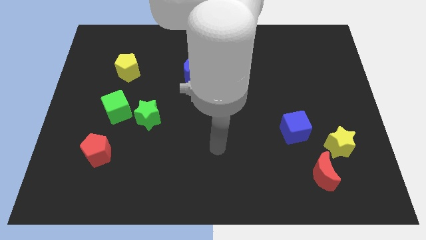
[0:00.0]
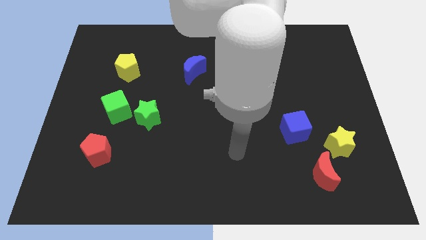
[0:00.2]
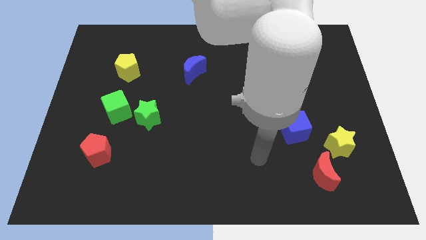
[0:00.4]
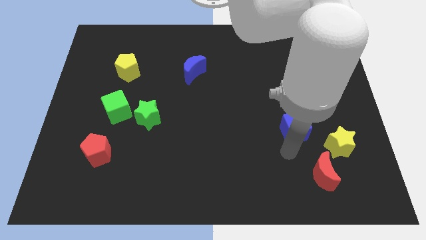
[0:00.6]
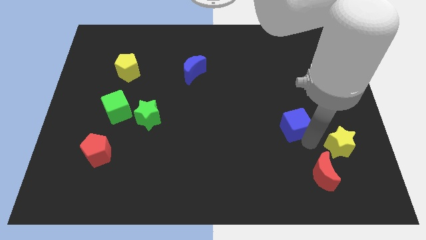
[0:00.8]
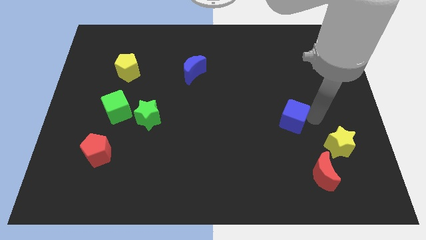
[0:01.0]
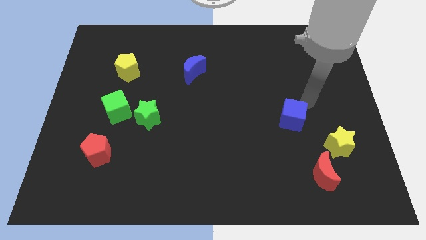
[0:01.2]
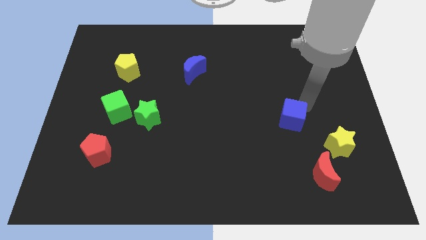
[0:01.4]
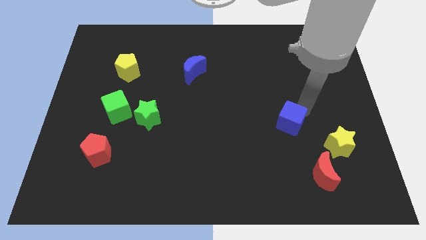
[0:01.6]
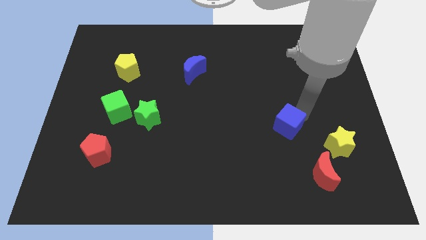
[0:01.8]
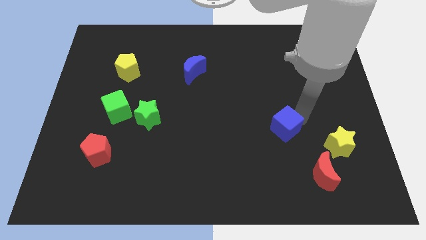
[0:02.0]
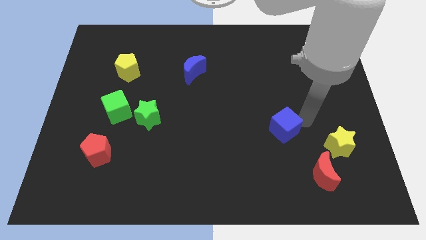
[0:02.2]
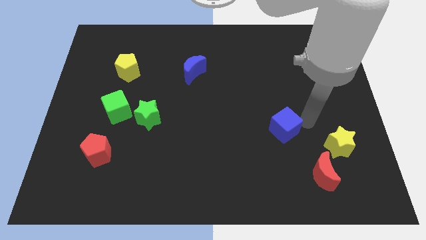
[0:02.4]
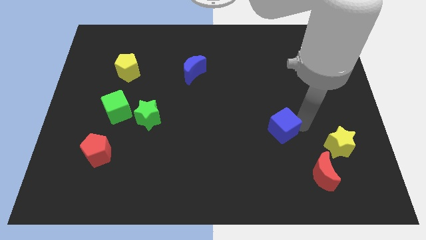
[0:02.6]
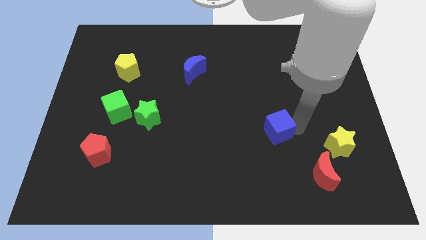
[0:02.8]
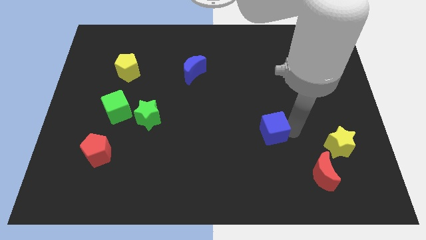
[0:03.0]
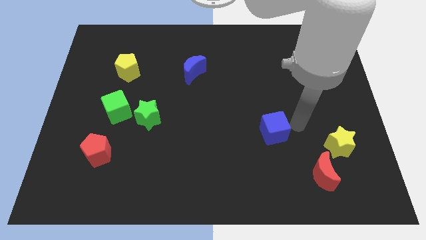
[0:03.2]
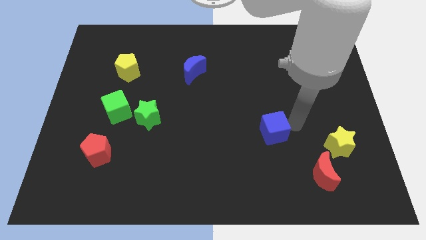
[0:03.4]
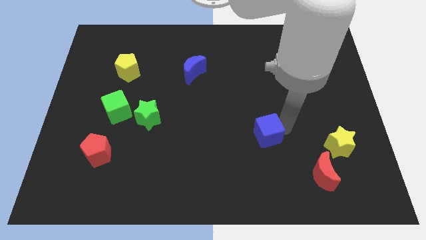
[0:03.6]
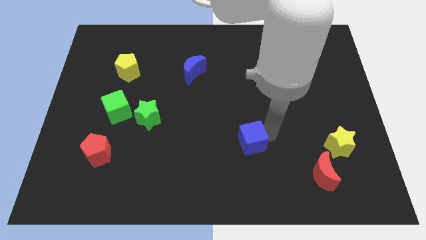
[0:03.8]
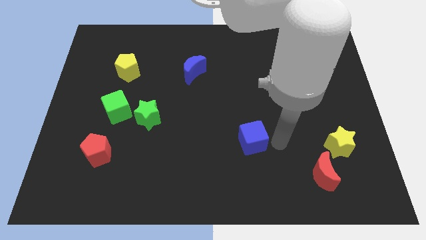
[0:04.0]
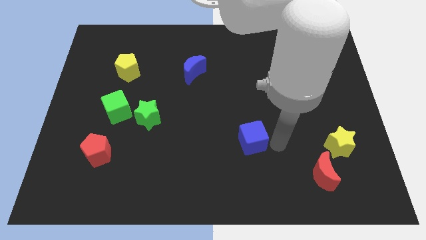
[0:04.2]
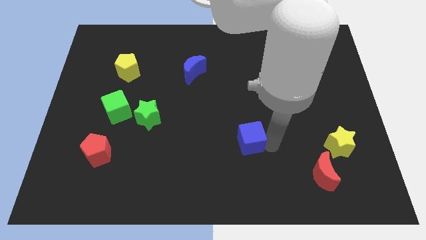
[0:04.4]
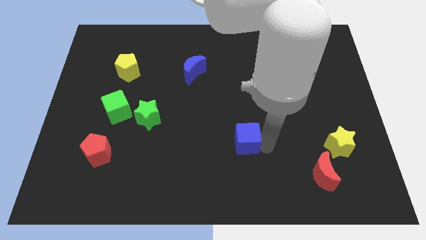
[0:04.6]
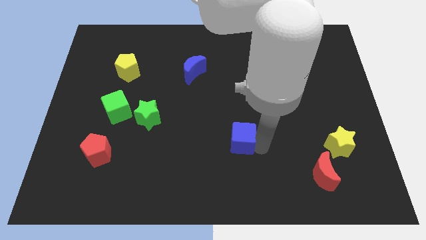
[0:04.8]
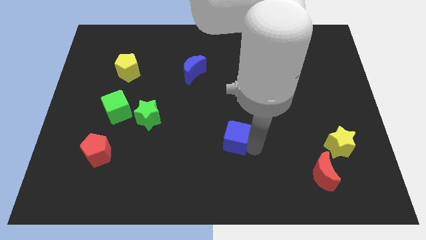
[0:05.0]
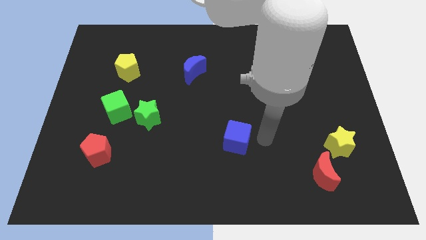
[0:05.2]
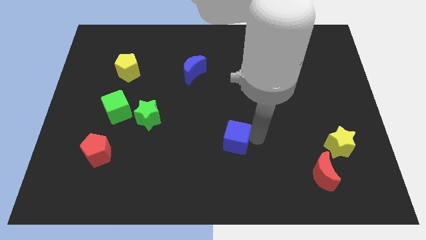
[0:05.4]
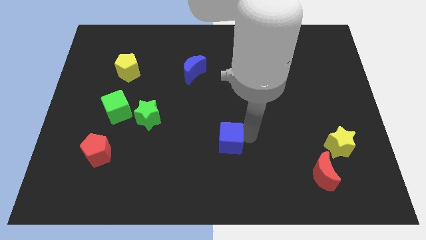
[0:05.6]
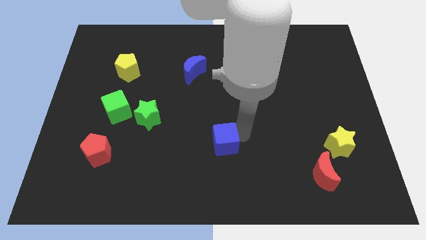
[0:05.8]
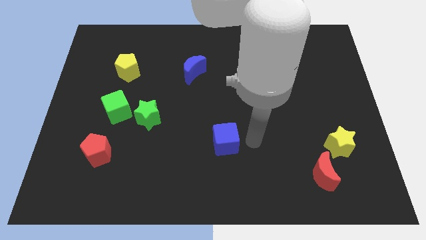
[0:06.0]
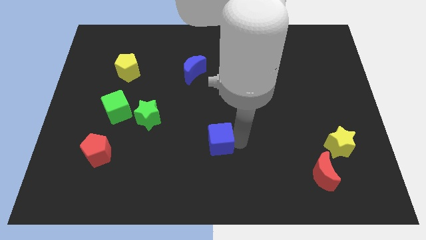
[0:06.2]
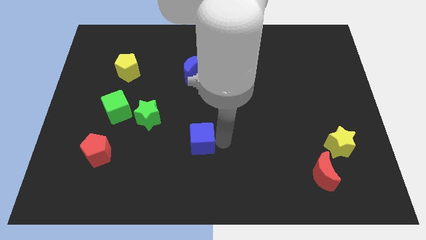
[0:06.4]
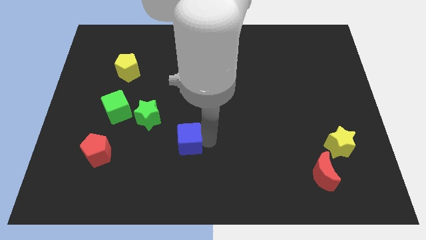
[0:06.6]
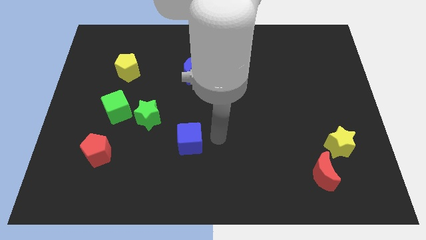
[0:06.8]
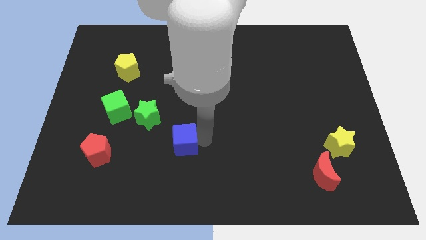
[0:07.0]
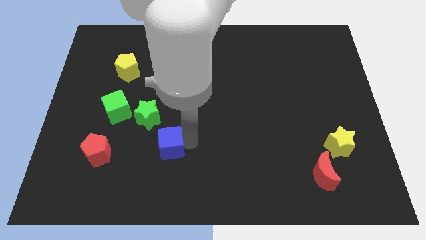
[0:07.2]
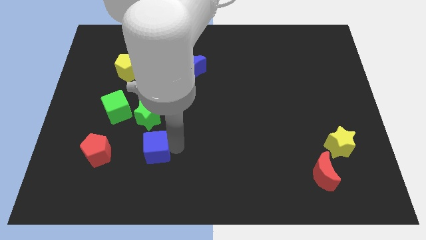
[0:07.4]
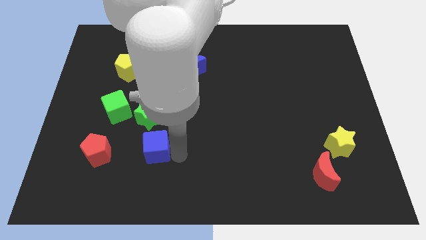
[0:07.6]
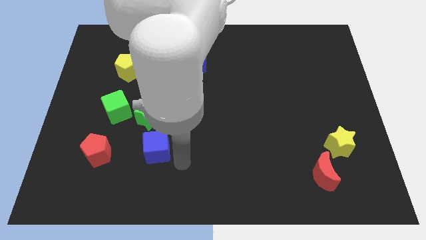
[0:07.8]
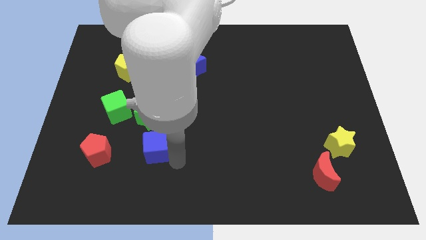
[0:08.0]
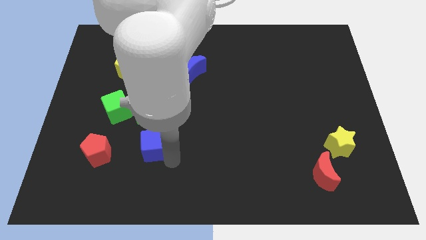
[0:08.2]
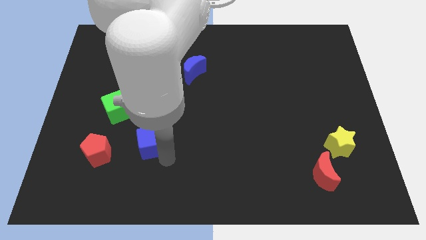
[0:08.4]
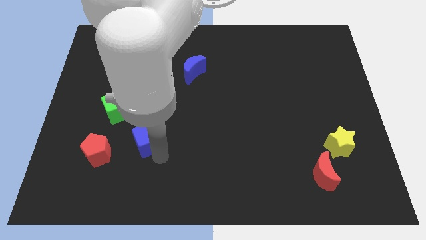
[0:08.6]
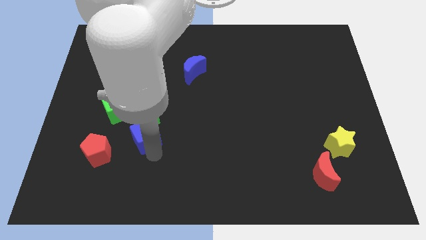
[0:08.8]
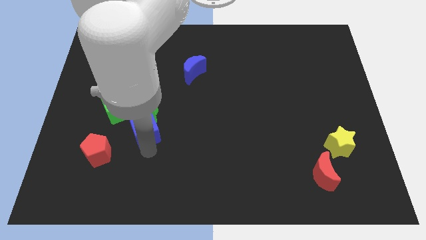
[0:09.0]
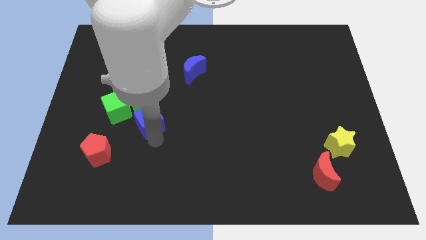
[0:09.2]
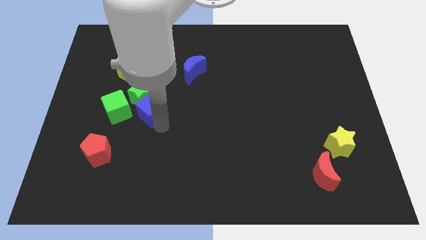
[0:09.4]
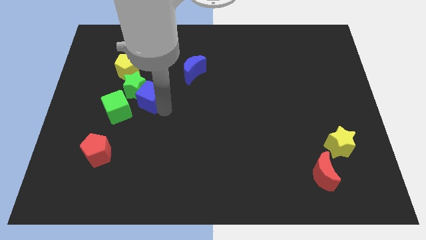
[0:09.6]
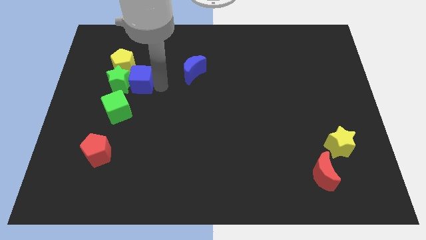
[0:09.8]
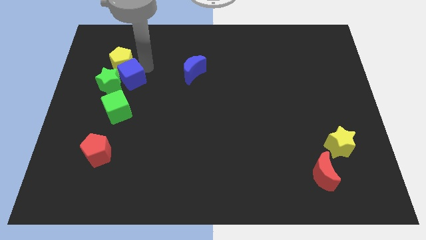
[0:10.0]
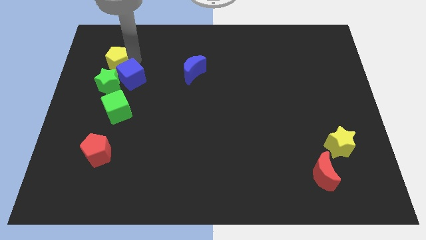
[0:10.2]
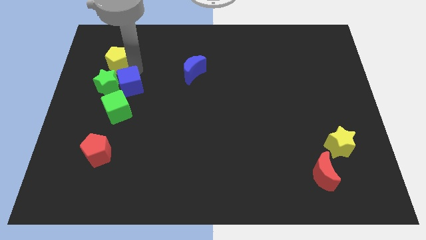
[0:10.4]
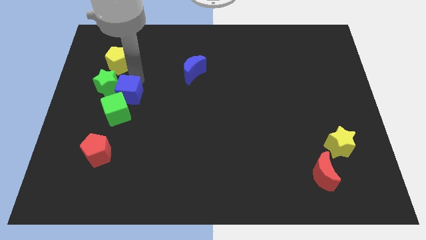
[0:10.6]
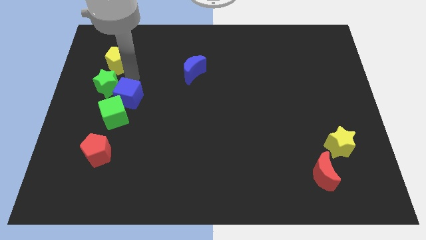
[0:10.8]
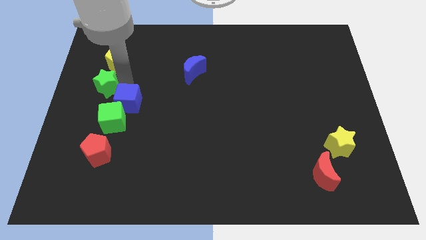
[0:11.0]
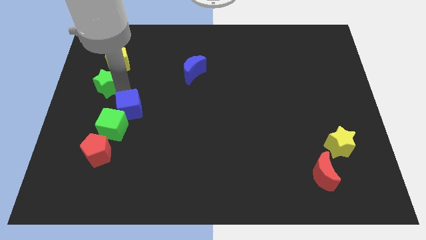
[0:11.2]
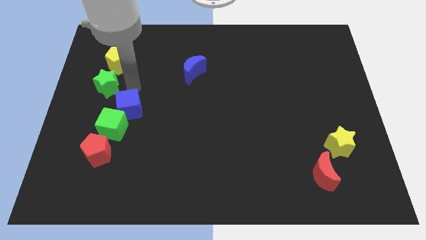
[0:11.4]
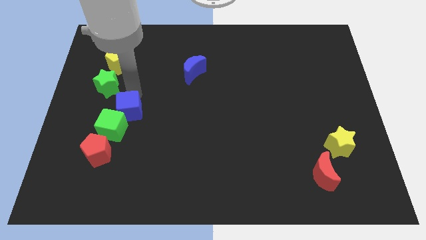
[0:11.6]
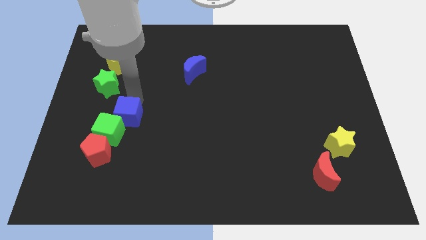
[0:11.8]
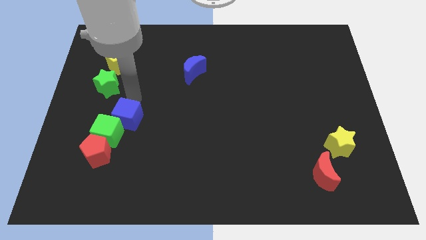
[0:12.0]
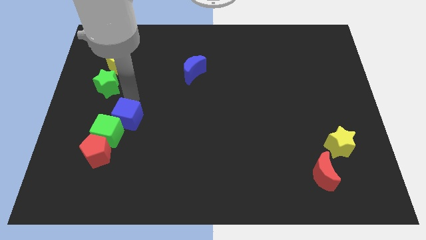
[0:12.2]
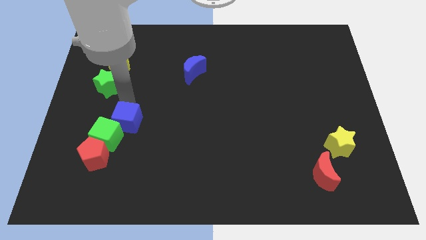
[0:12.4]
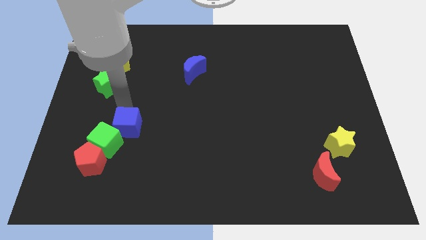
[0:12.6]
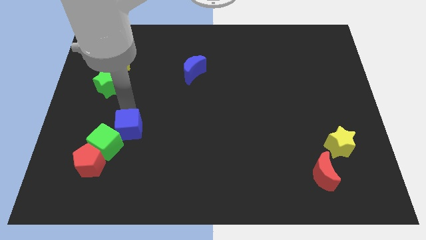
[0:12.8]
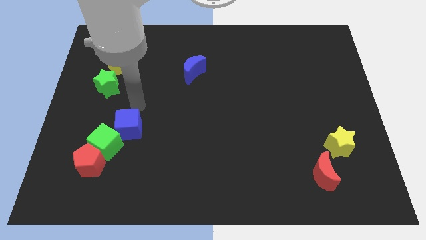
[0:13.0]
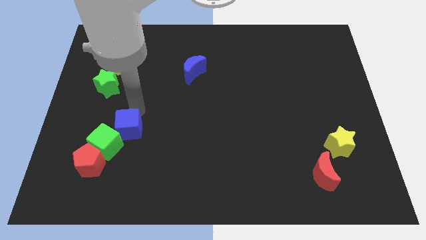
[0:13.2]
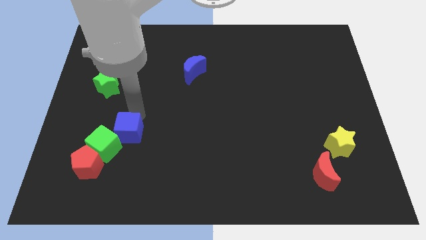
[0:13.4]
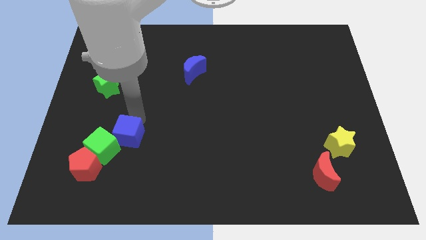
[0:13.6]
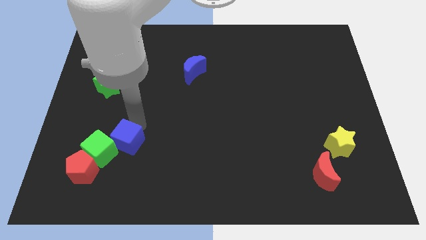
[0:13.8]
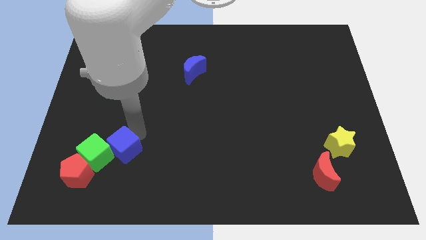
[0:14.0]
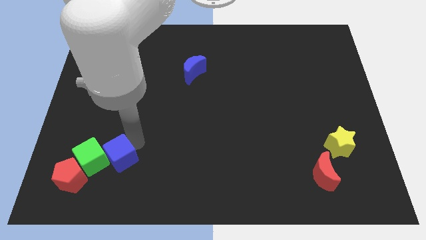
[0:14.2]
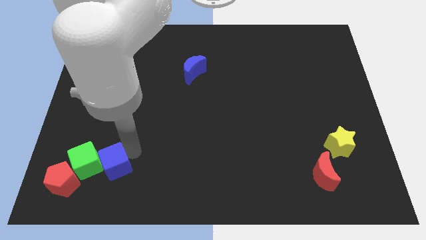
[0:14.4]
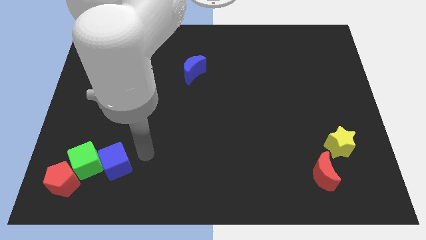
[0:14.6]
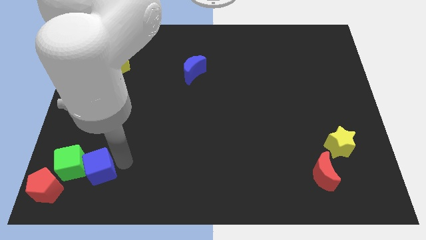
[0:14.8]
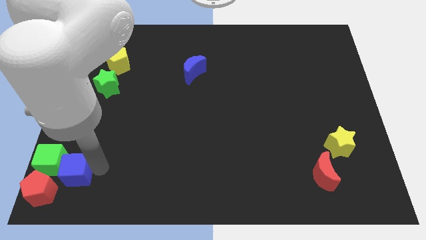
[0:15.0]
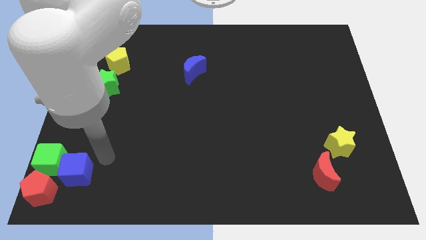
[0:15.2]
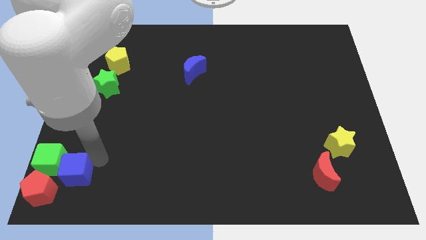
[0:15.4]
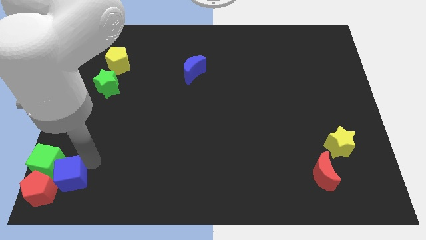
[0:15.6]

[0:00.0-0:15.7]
put the blue cube next to the red pentagon
